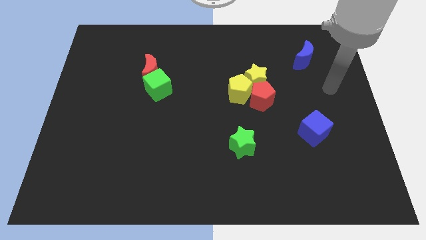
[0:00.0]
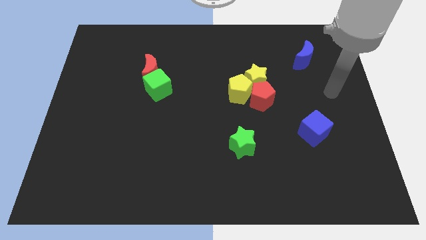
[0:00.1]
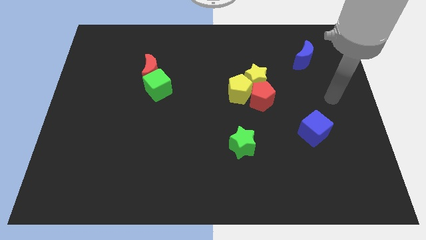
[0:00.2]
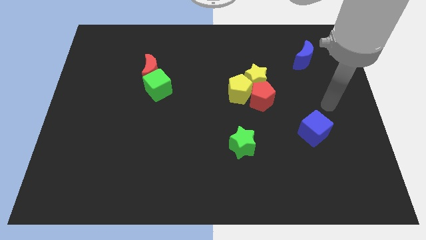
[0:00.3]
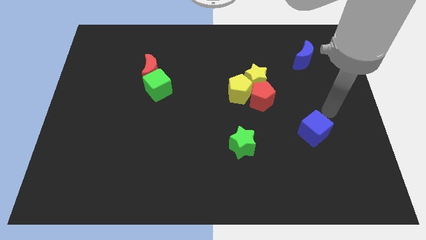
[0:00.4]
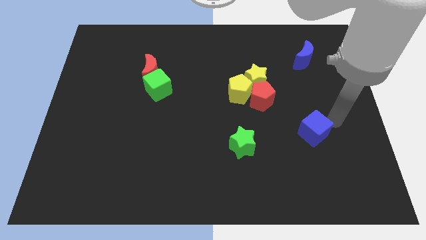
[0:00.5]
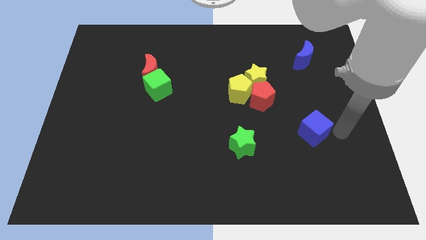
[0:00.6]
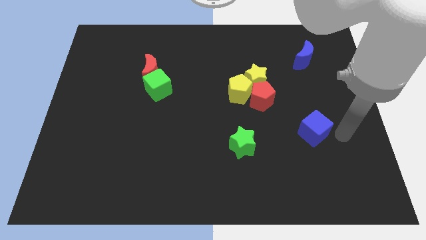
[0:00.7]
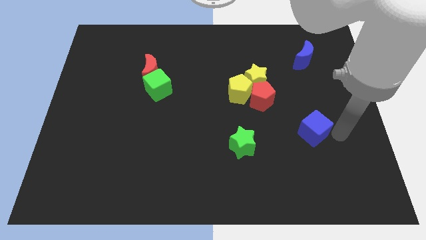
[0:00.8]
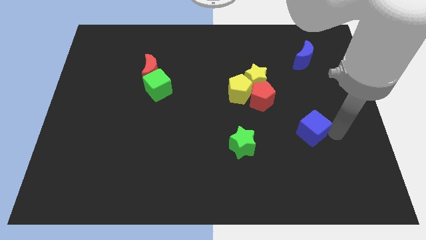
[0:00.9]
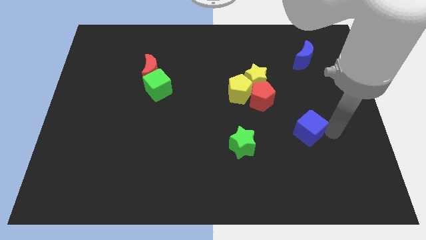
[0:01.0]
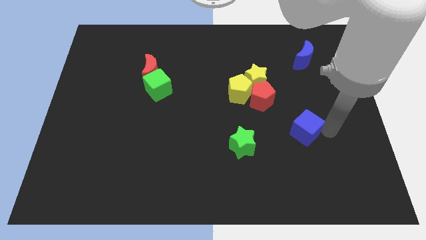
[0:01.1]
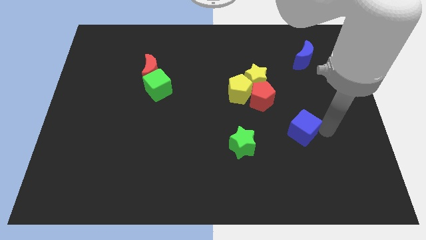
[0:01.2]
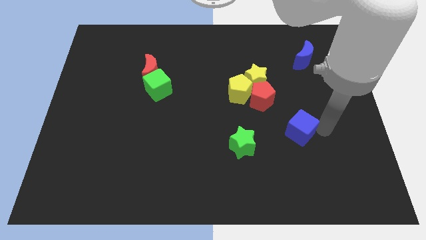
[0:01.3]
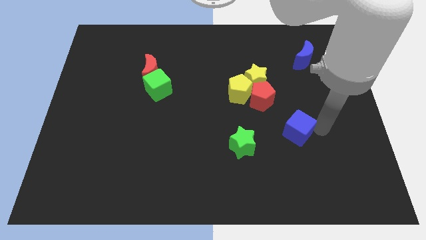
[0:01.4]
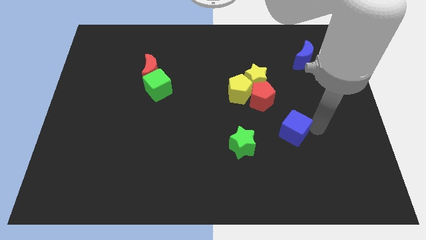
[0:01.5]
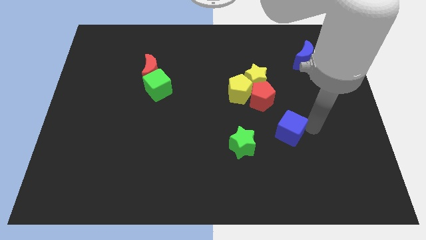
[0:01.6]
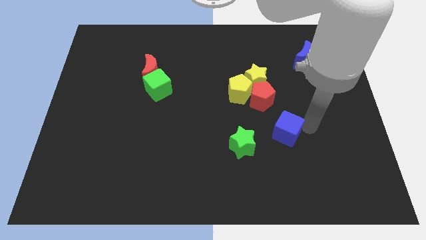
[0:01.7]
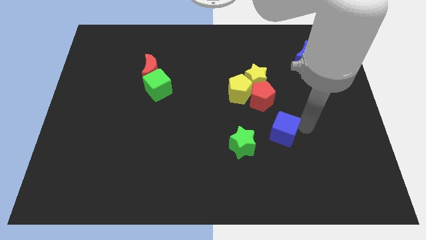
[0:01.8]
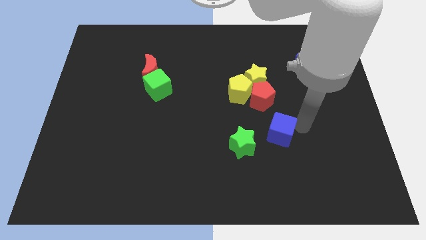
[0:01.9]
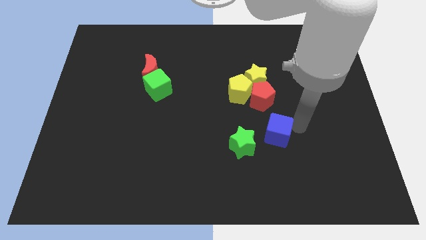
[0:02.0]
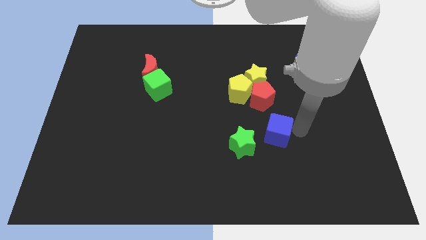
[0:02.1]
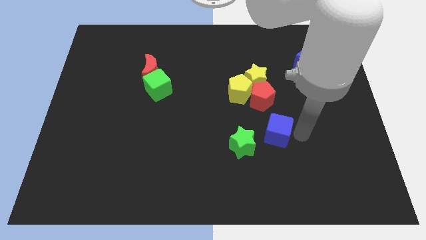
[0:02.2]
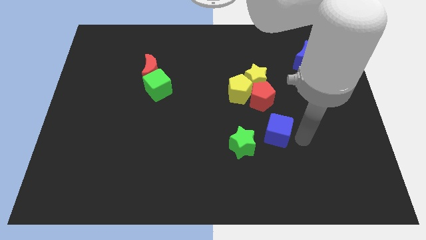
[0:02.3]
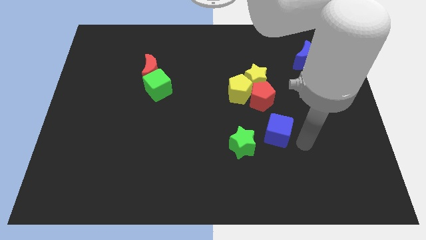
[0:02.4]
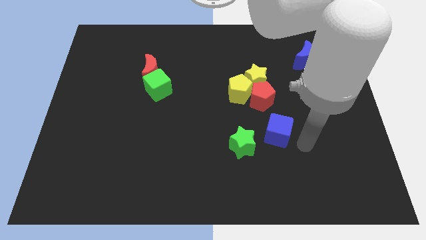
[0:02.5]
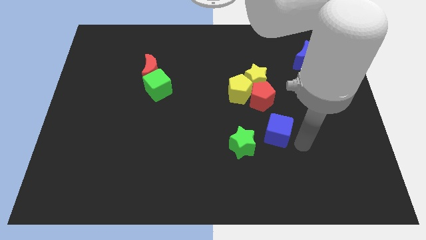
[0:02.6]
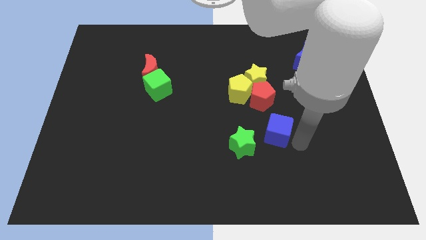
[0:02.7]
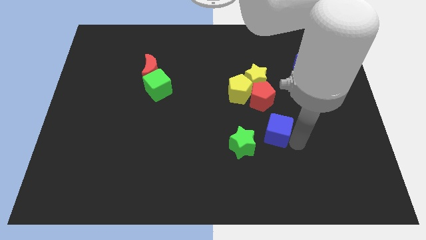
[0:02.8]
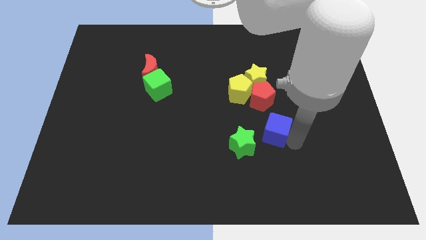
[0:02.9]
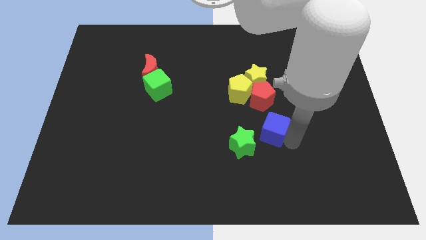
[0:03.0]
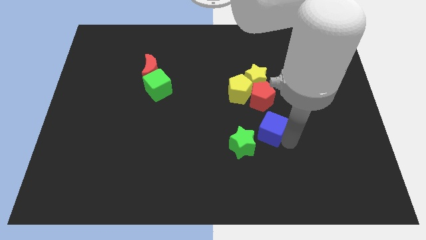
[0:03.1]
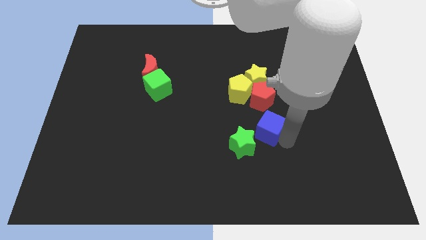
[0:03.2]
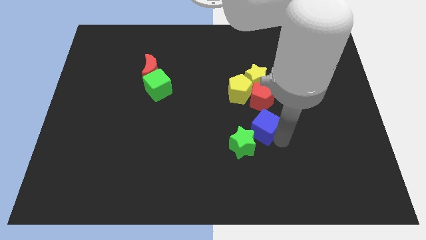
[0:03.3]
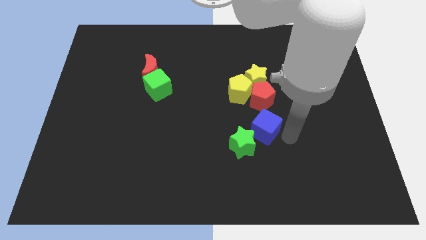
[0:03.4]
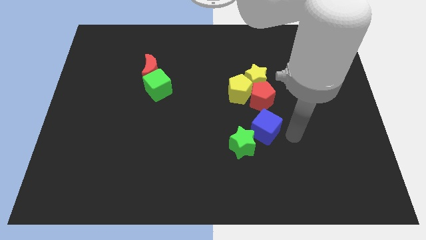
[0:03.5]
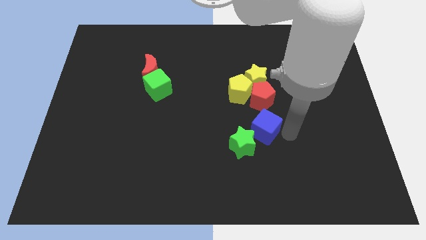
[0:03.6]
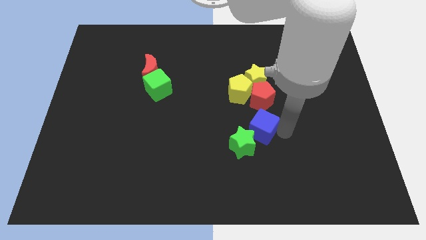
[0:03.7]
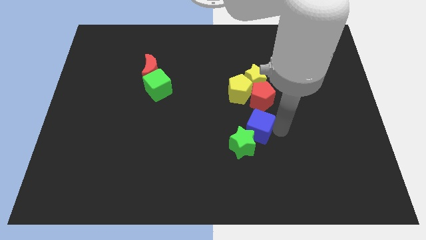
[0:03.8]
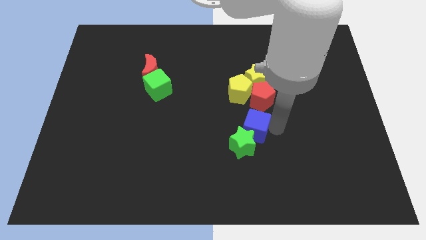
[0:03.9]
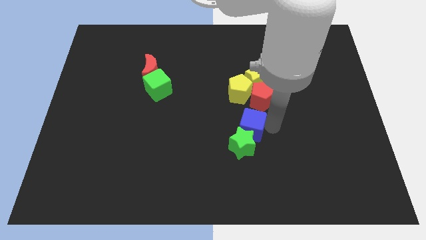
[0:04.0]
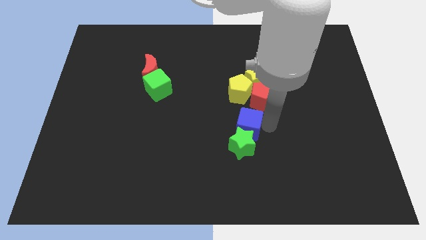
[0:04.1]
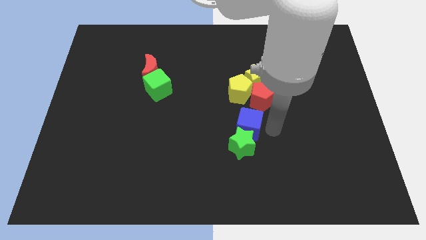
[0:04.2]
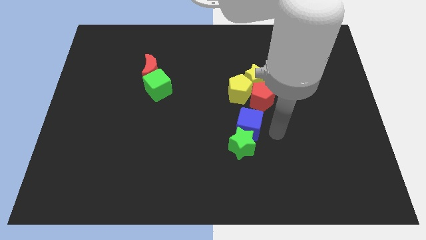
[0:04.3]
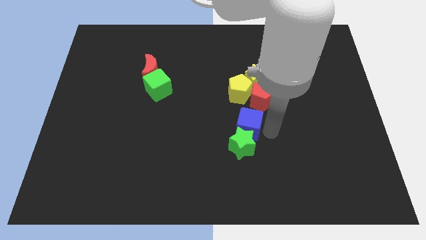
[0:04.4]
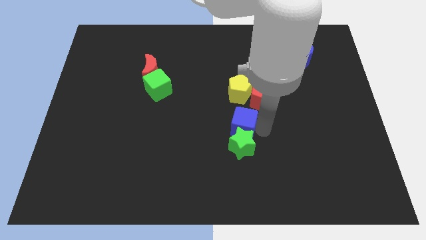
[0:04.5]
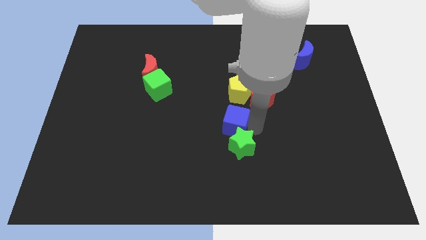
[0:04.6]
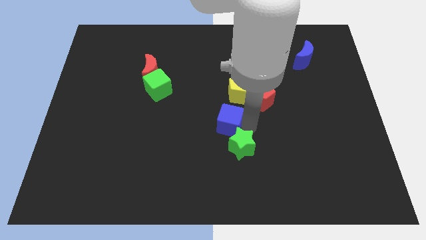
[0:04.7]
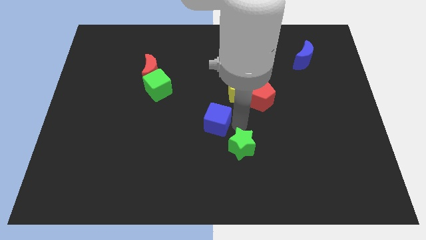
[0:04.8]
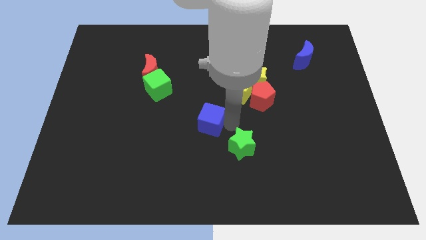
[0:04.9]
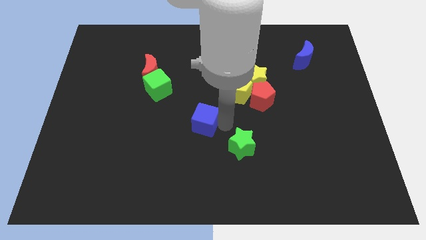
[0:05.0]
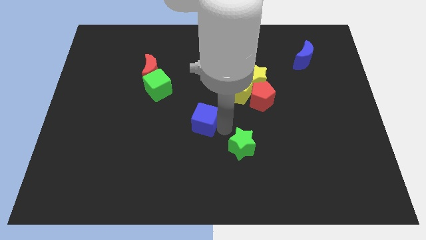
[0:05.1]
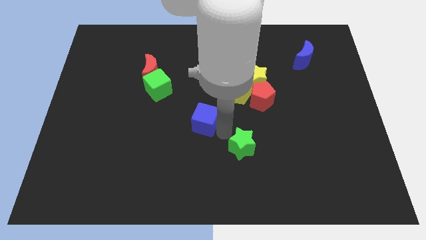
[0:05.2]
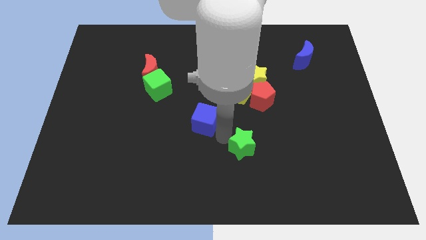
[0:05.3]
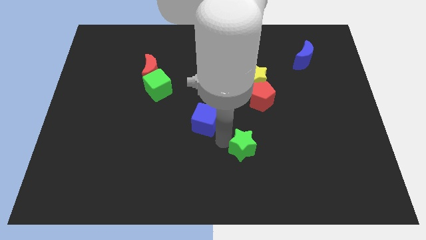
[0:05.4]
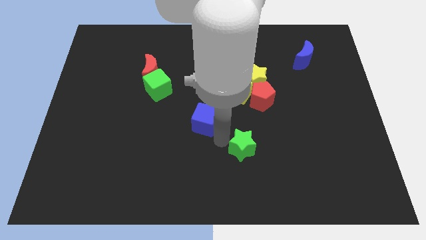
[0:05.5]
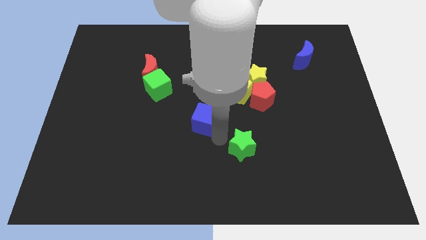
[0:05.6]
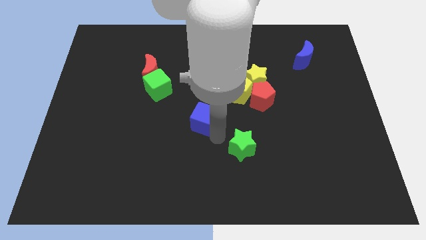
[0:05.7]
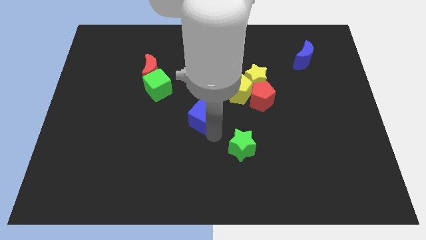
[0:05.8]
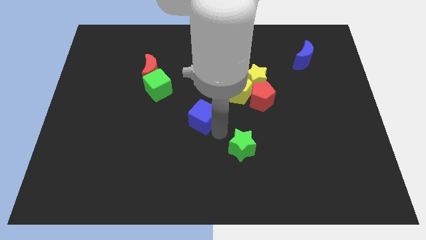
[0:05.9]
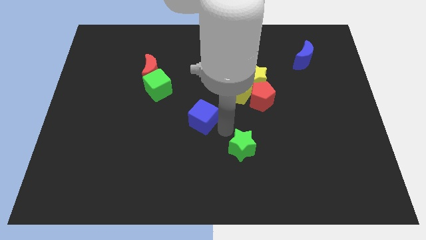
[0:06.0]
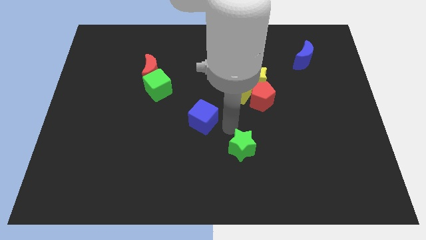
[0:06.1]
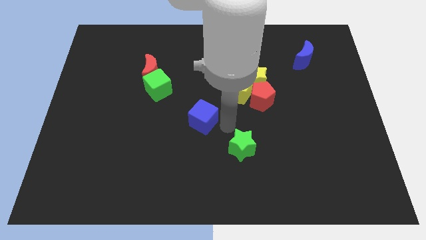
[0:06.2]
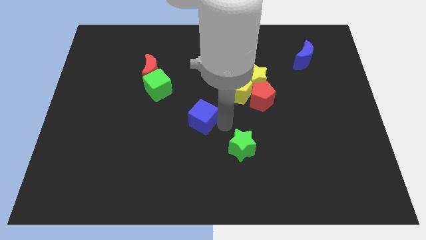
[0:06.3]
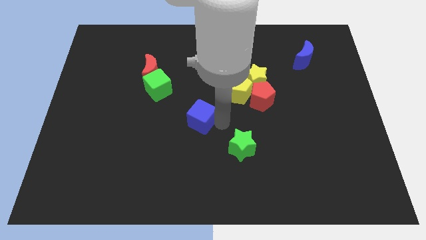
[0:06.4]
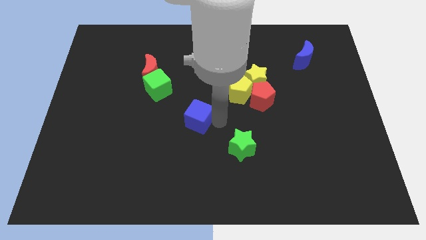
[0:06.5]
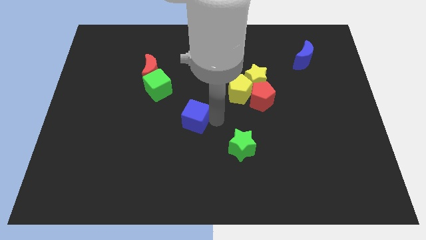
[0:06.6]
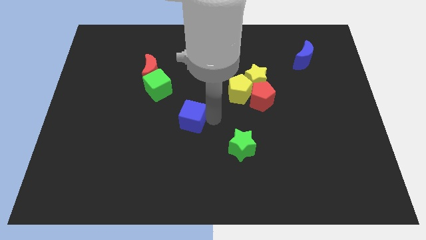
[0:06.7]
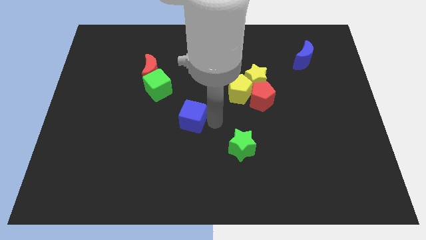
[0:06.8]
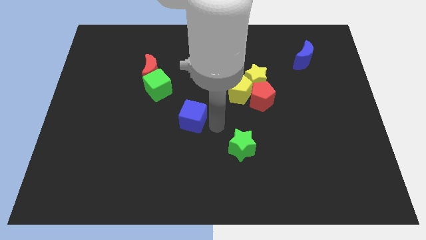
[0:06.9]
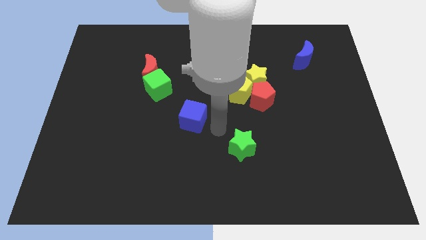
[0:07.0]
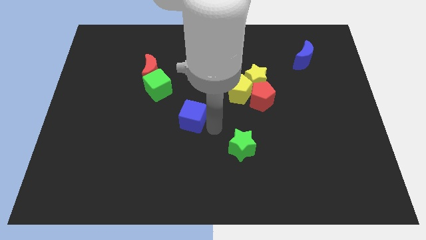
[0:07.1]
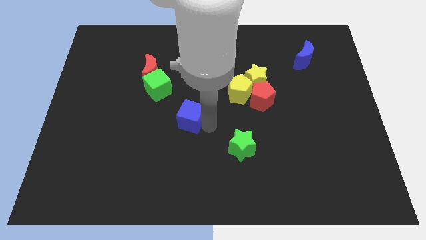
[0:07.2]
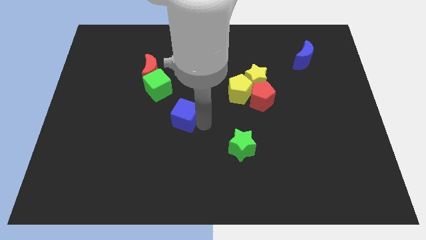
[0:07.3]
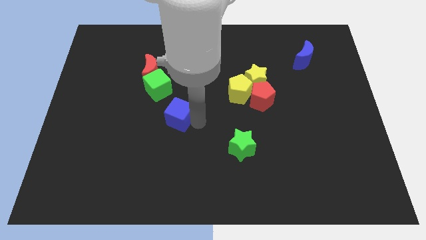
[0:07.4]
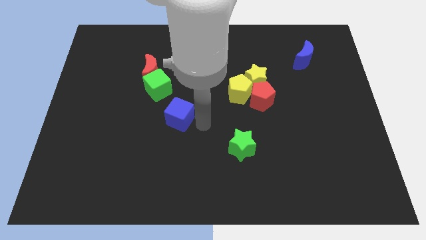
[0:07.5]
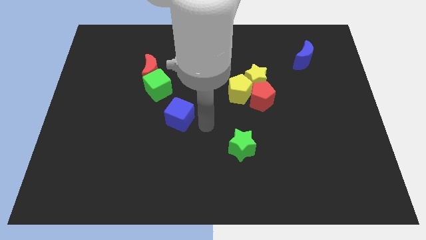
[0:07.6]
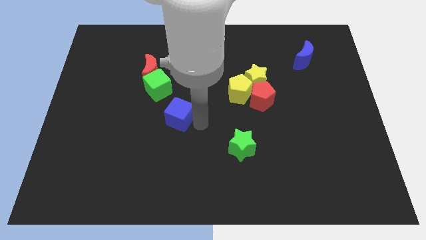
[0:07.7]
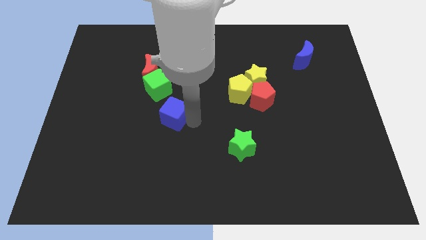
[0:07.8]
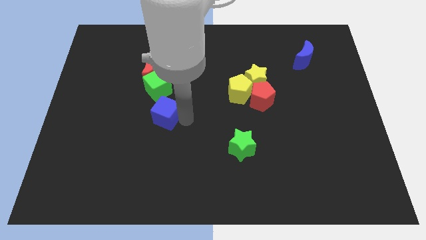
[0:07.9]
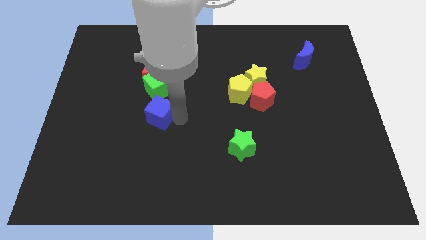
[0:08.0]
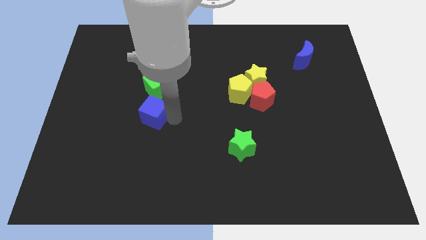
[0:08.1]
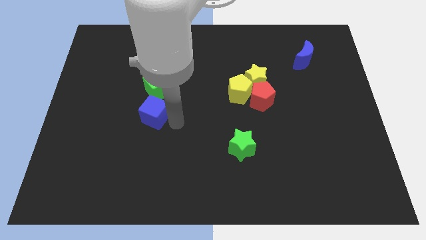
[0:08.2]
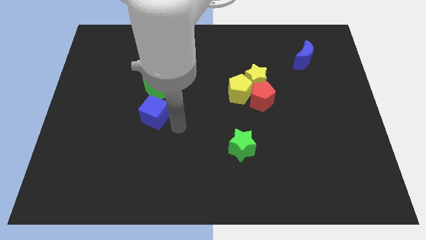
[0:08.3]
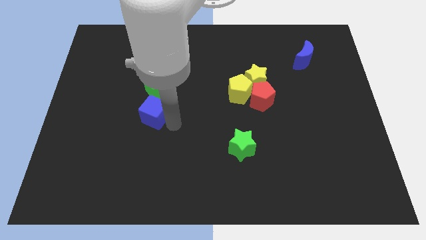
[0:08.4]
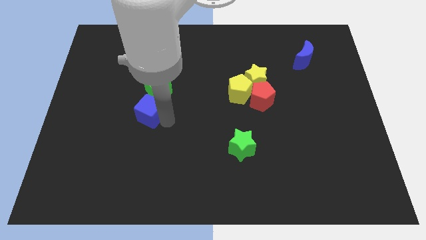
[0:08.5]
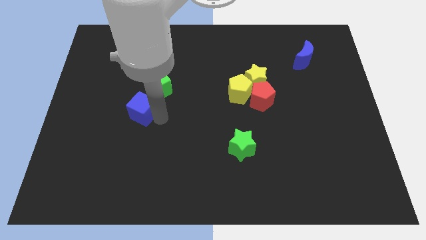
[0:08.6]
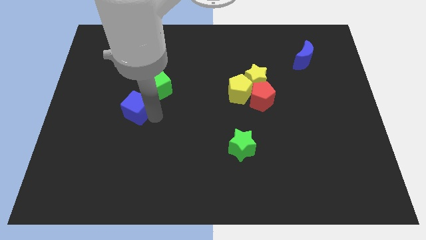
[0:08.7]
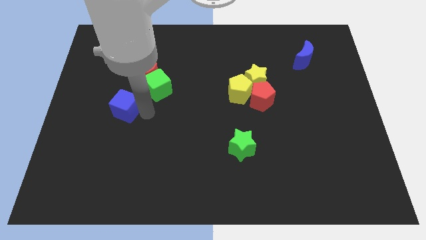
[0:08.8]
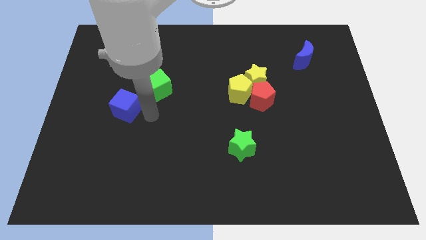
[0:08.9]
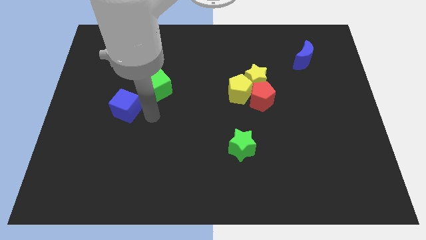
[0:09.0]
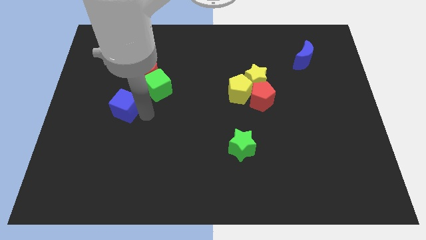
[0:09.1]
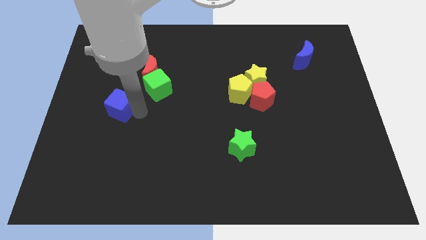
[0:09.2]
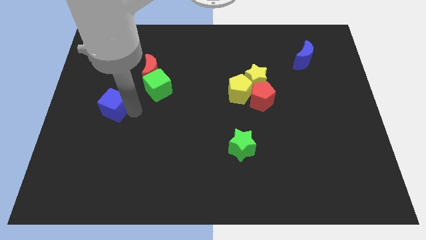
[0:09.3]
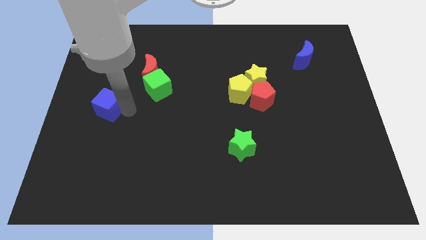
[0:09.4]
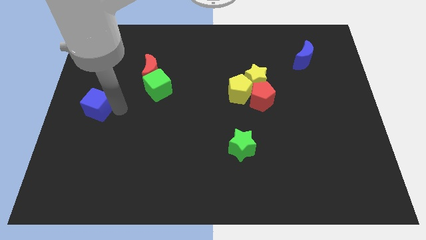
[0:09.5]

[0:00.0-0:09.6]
slide the blue cube to the center left
